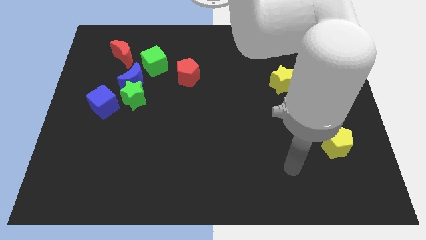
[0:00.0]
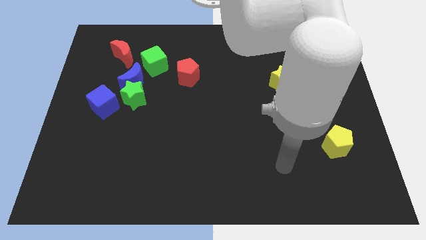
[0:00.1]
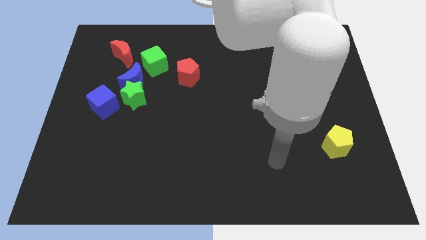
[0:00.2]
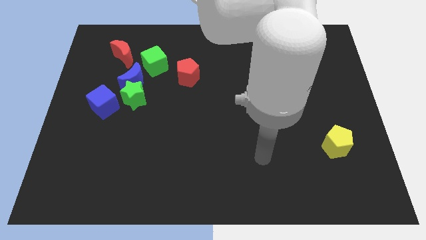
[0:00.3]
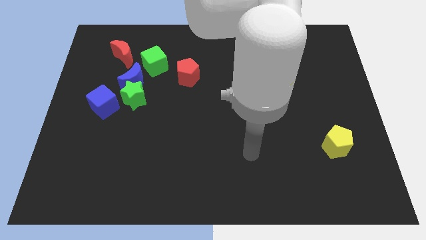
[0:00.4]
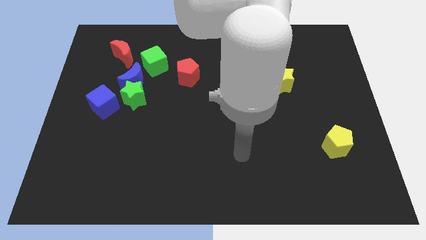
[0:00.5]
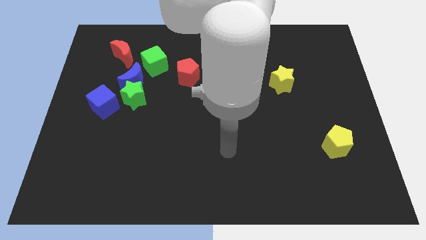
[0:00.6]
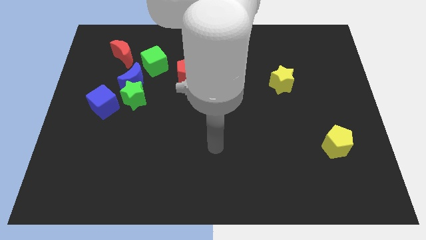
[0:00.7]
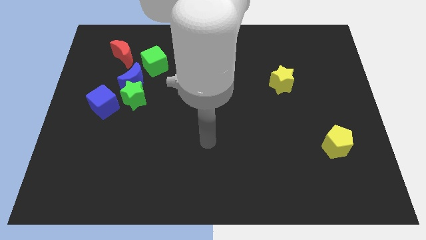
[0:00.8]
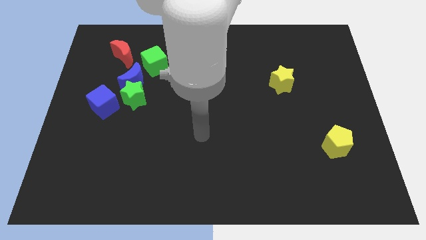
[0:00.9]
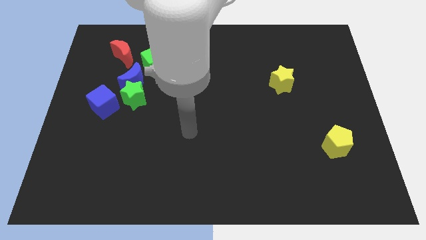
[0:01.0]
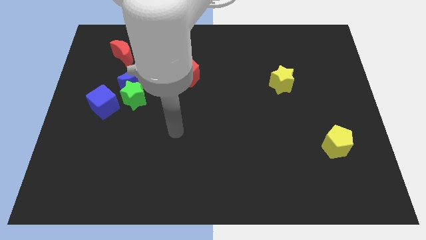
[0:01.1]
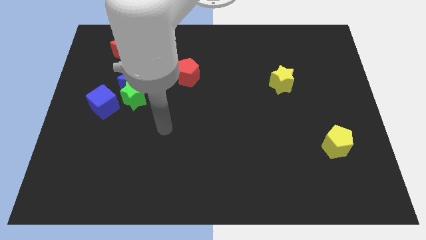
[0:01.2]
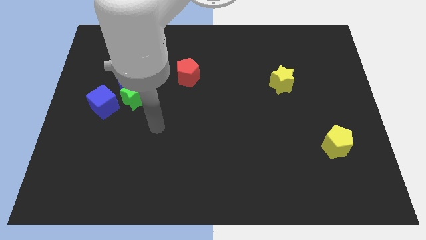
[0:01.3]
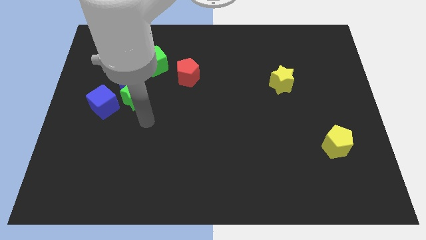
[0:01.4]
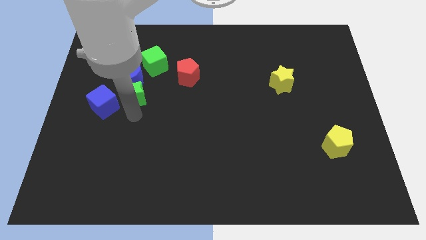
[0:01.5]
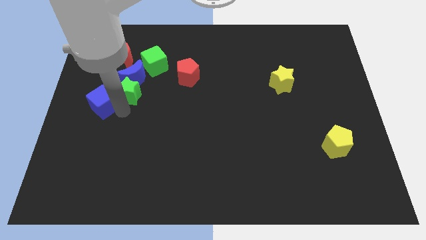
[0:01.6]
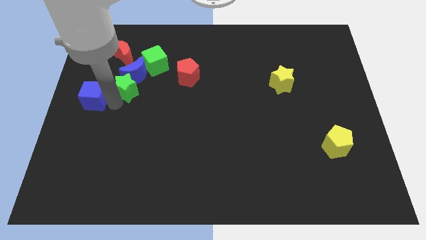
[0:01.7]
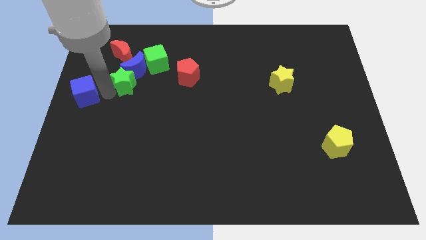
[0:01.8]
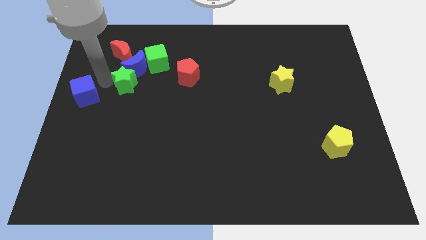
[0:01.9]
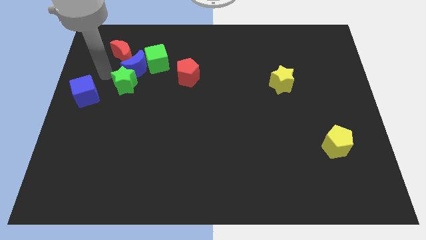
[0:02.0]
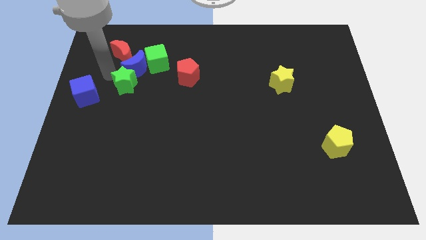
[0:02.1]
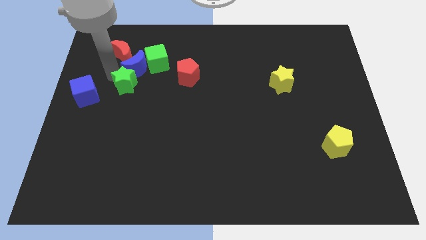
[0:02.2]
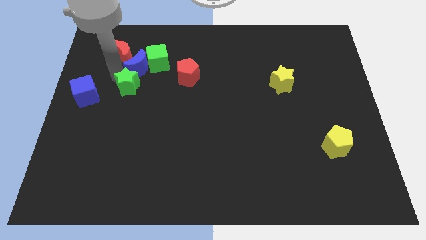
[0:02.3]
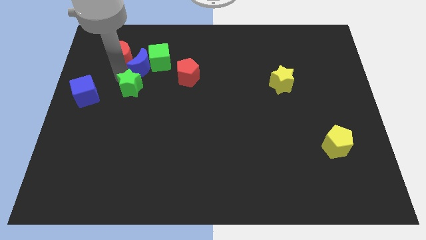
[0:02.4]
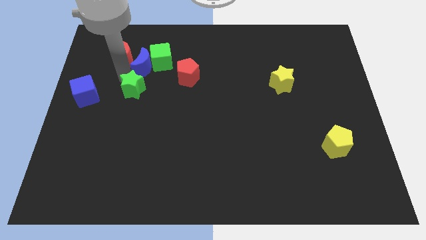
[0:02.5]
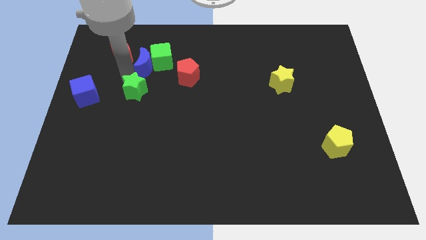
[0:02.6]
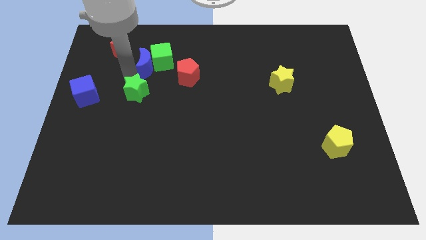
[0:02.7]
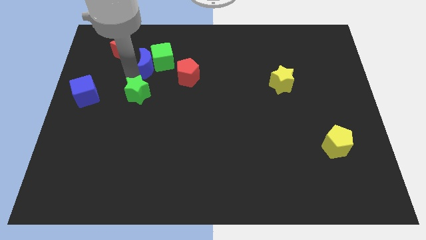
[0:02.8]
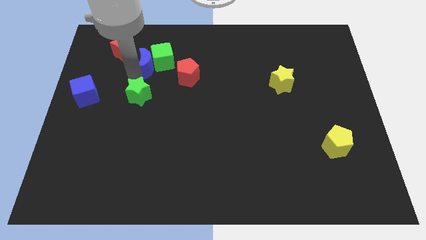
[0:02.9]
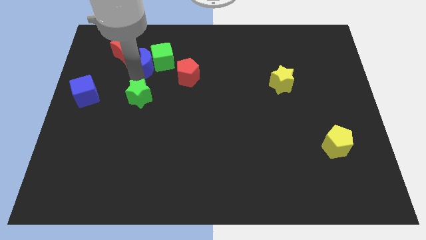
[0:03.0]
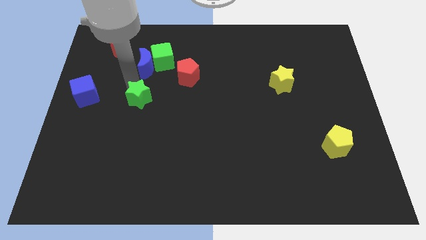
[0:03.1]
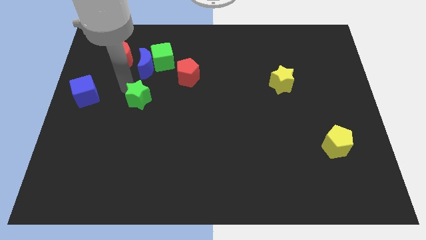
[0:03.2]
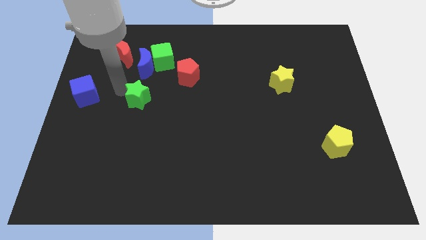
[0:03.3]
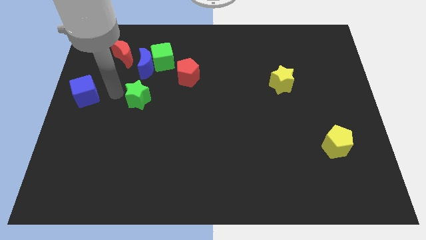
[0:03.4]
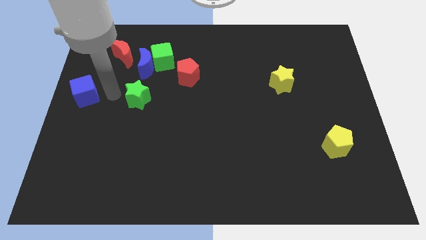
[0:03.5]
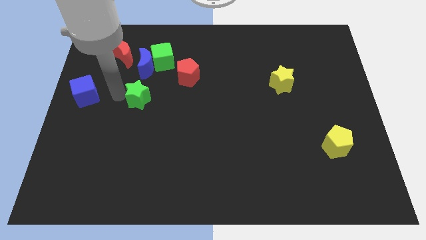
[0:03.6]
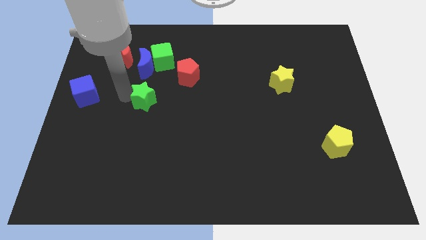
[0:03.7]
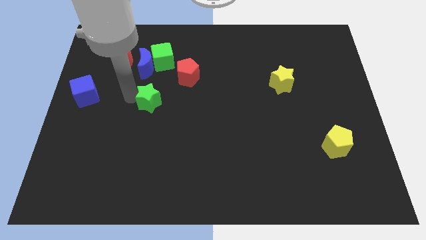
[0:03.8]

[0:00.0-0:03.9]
pull the green star apart from the blue moon and blue cube

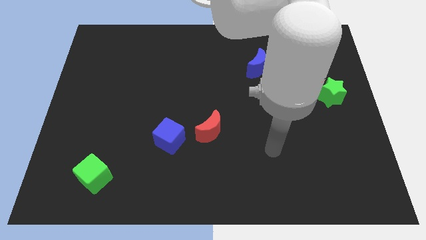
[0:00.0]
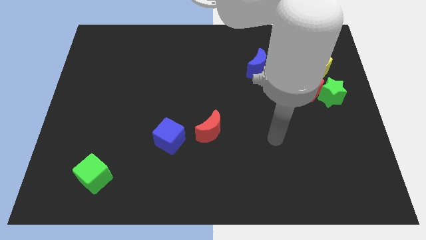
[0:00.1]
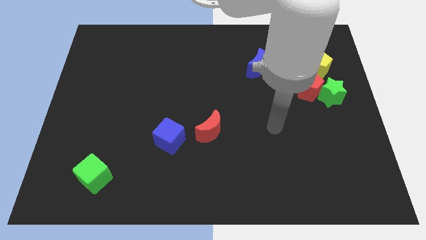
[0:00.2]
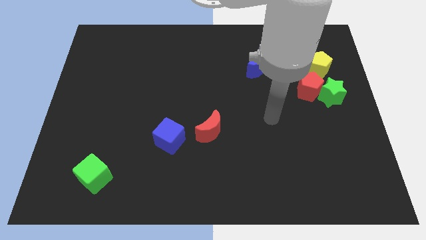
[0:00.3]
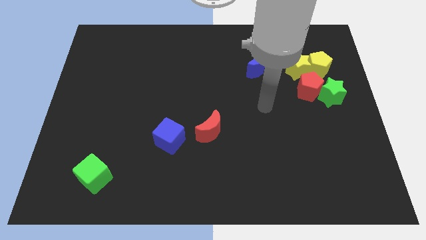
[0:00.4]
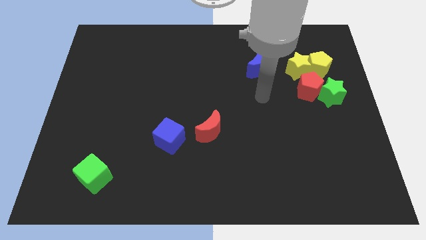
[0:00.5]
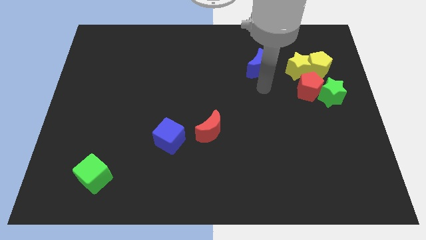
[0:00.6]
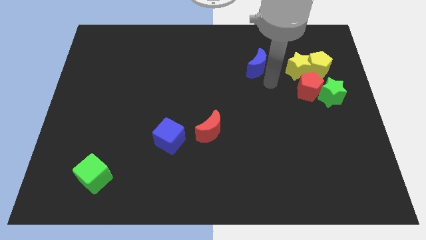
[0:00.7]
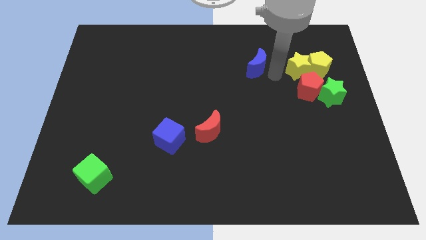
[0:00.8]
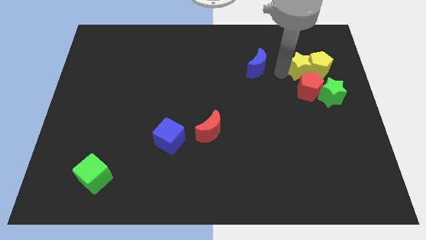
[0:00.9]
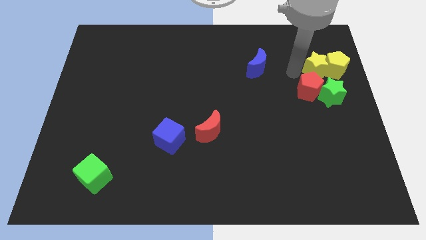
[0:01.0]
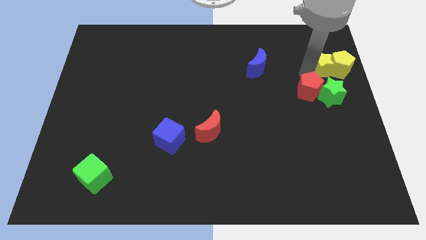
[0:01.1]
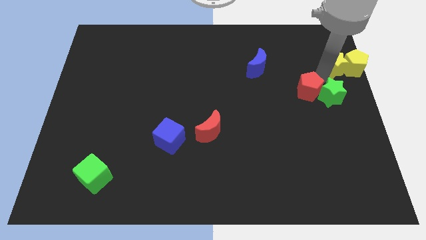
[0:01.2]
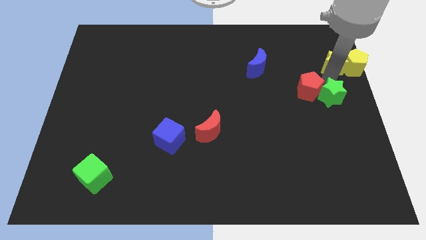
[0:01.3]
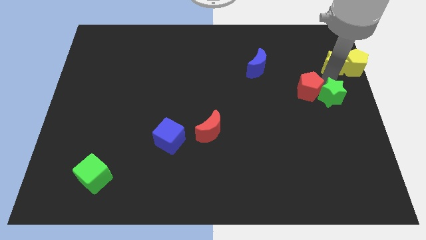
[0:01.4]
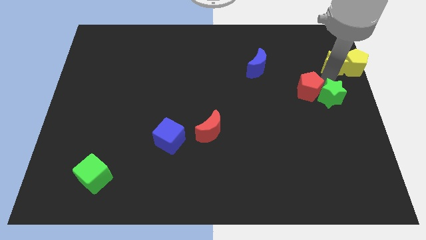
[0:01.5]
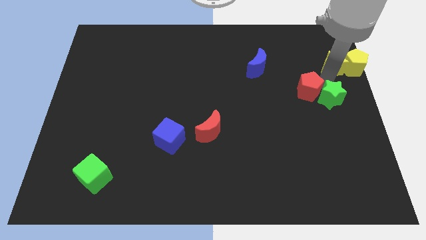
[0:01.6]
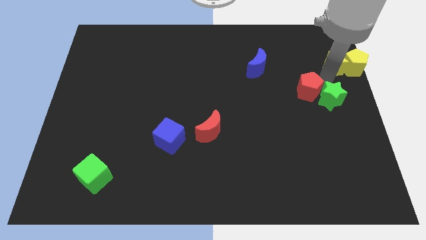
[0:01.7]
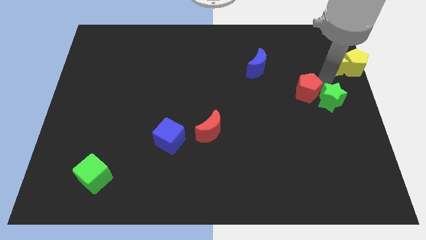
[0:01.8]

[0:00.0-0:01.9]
move the red pentagon away from the group of blocks

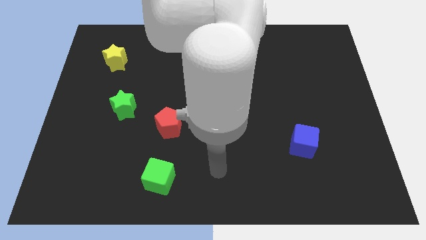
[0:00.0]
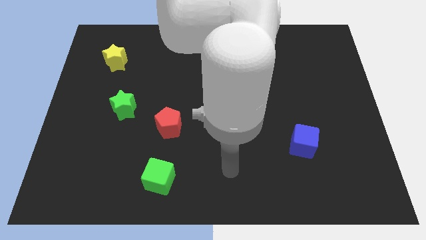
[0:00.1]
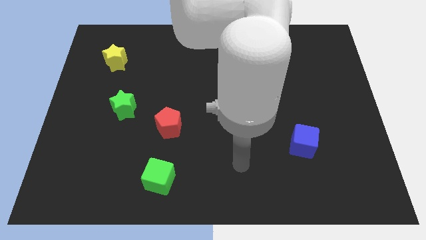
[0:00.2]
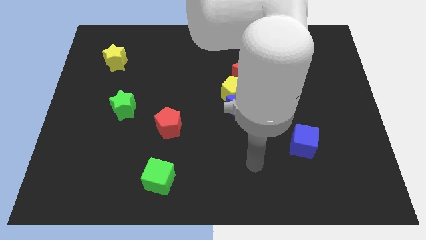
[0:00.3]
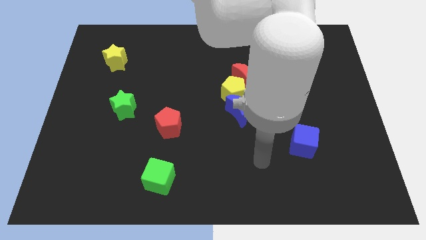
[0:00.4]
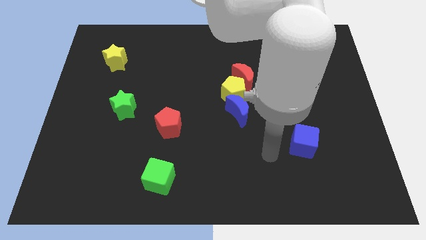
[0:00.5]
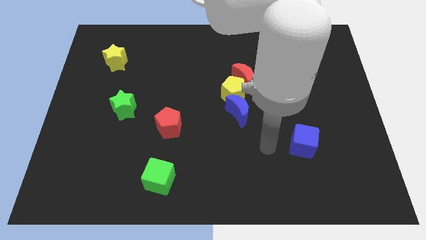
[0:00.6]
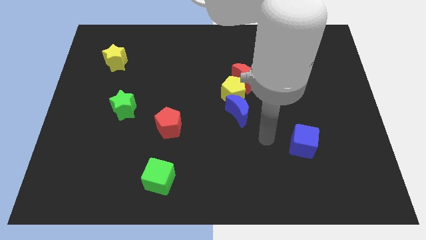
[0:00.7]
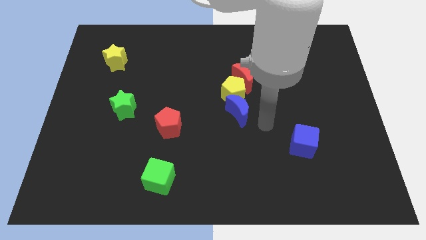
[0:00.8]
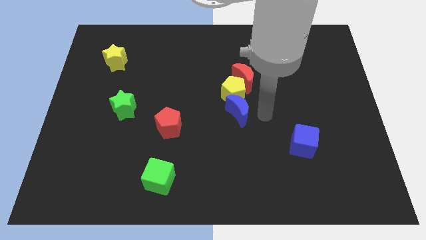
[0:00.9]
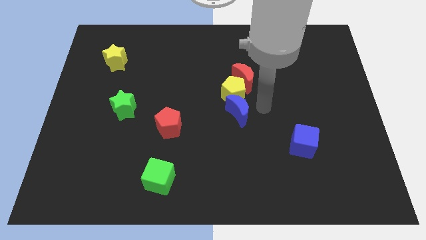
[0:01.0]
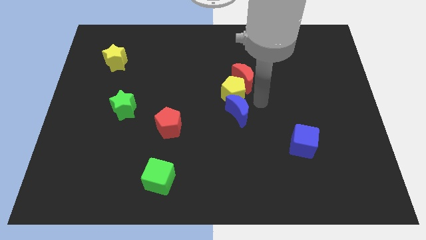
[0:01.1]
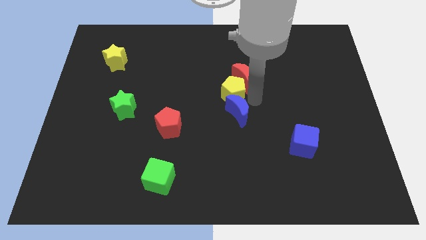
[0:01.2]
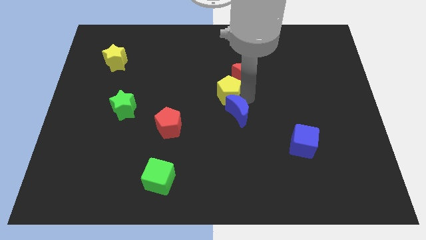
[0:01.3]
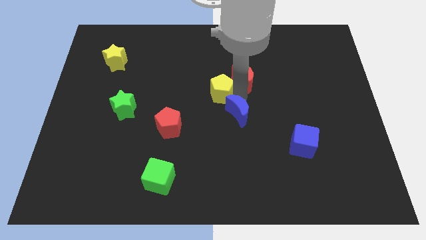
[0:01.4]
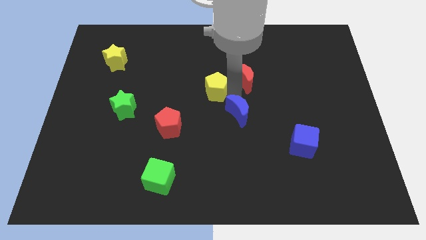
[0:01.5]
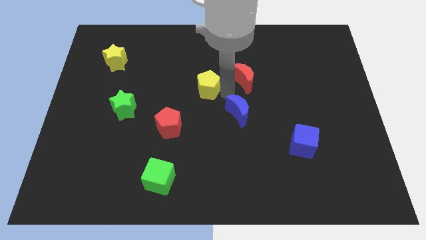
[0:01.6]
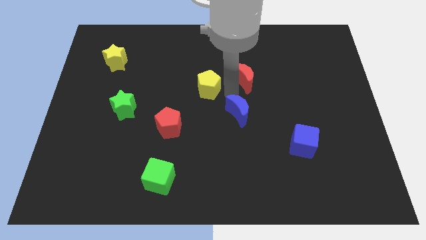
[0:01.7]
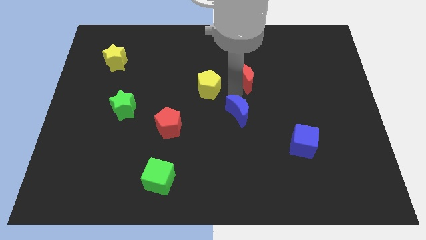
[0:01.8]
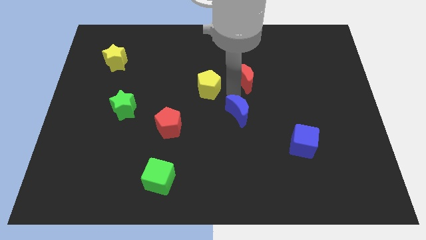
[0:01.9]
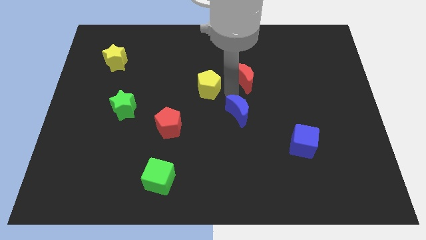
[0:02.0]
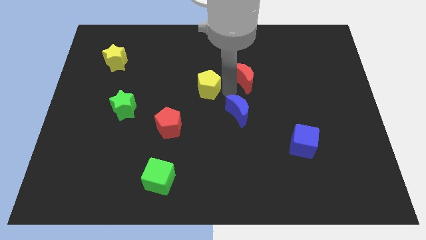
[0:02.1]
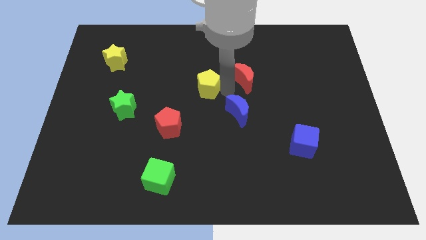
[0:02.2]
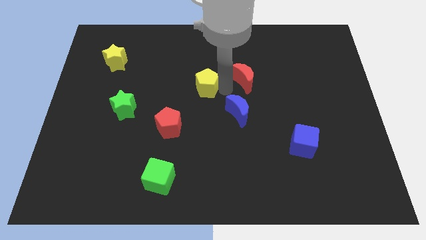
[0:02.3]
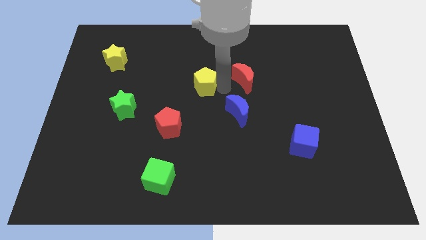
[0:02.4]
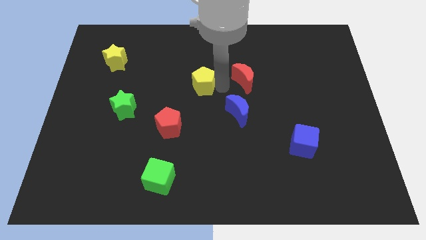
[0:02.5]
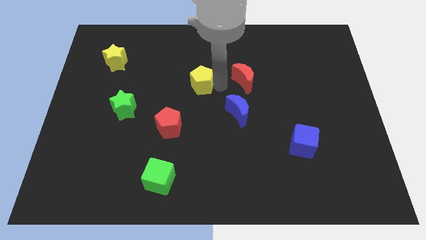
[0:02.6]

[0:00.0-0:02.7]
separate the yellow pentagon from the red moon and blue moon

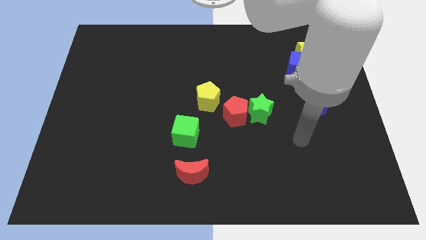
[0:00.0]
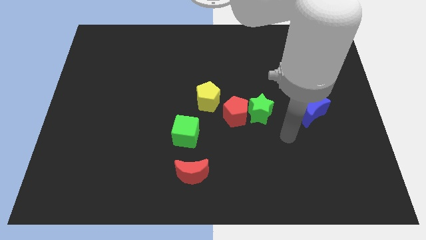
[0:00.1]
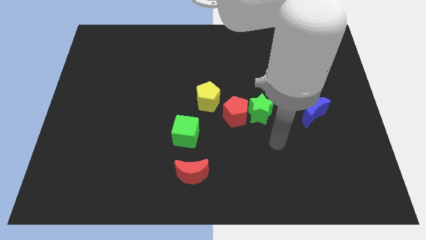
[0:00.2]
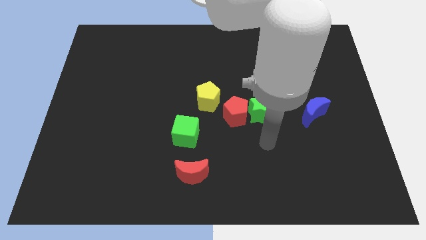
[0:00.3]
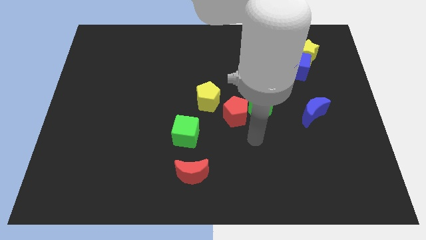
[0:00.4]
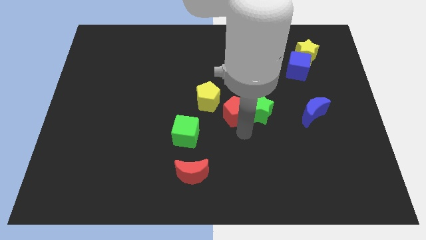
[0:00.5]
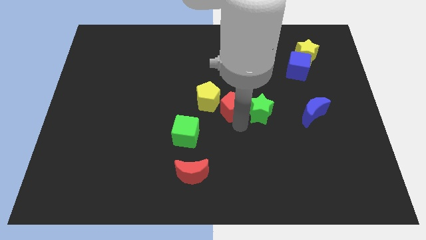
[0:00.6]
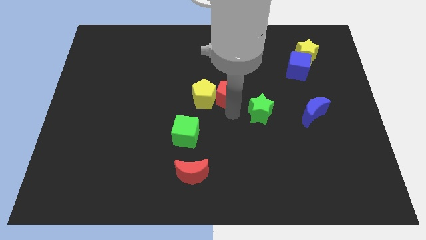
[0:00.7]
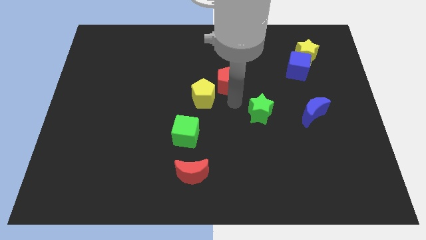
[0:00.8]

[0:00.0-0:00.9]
separate the green star from the red pentagon
